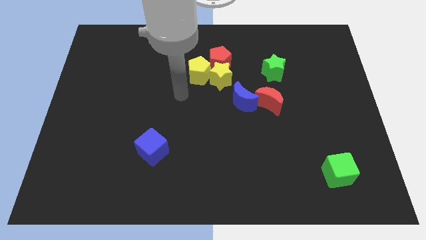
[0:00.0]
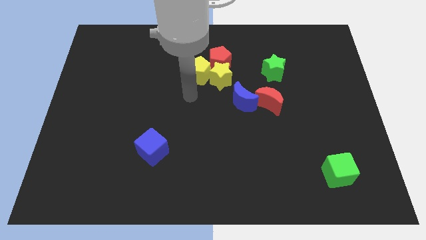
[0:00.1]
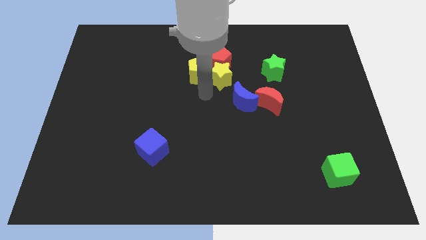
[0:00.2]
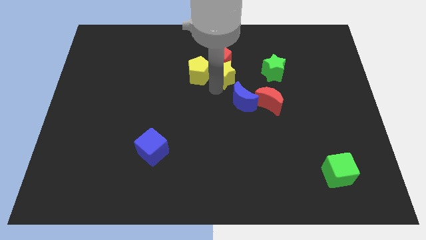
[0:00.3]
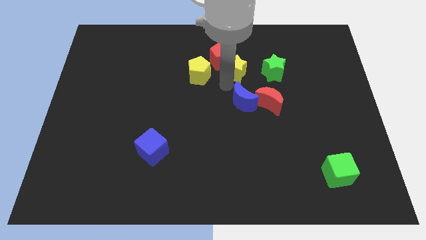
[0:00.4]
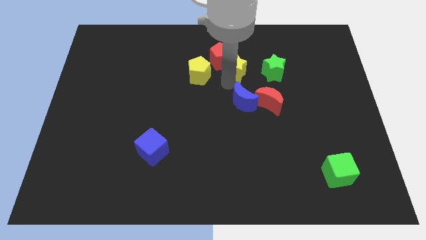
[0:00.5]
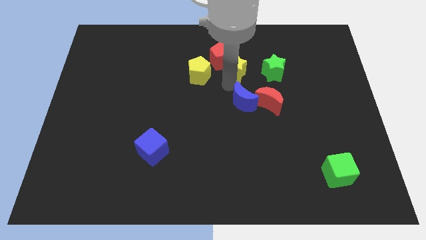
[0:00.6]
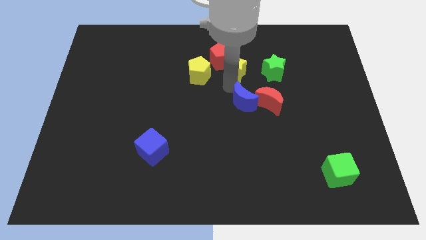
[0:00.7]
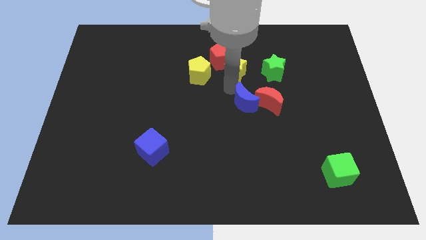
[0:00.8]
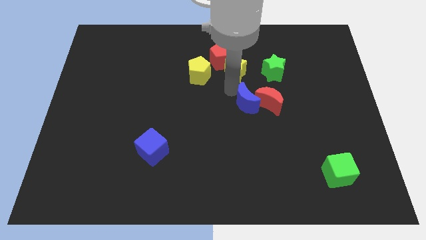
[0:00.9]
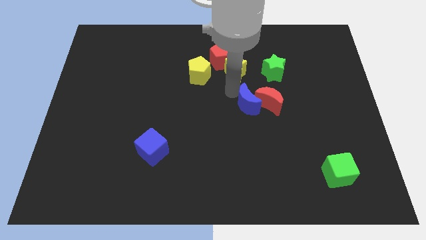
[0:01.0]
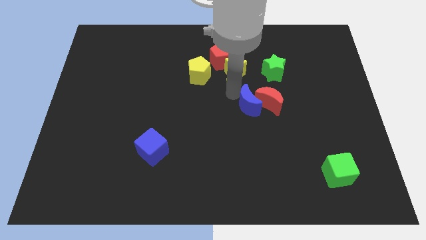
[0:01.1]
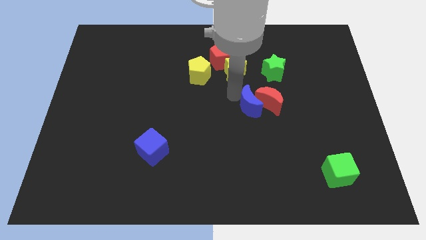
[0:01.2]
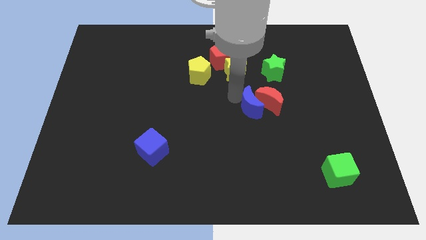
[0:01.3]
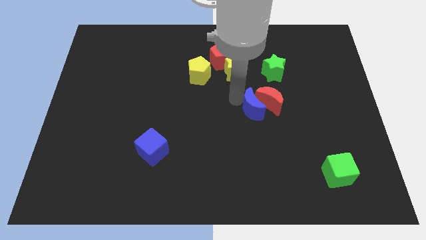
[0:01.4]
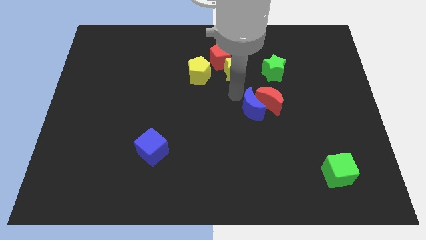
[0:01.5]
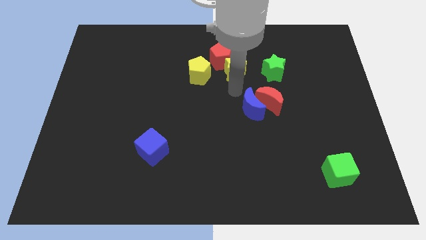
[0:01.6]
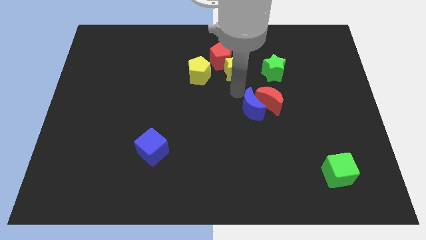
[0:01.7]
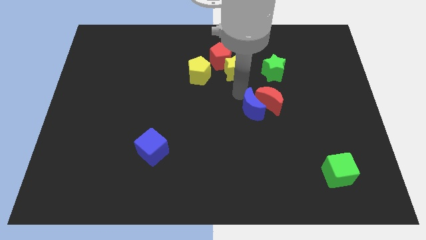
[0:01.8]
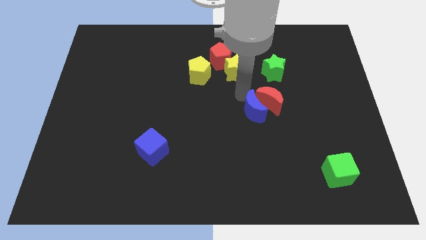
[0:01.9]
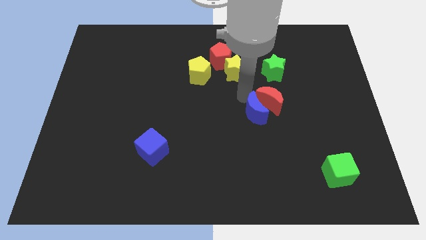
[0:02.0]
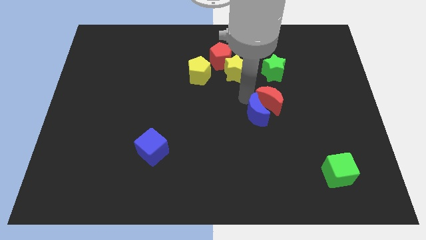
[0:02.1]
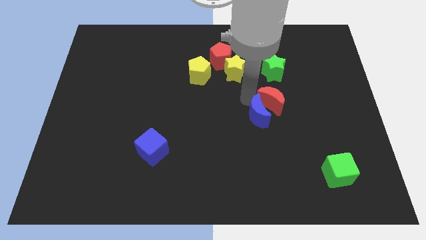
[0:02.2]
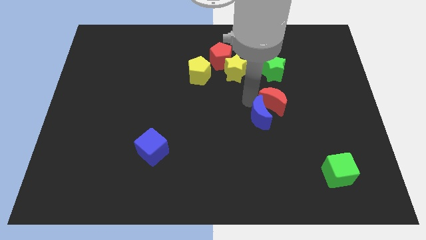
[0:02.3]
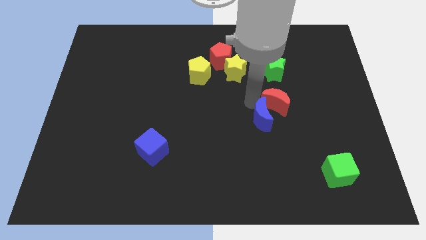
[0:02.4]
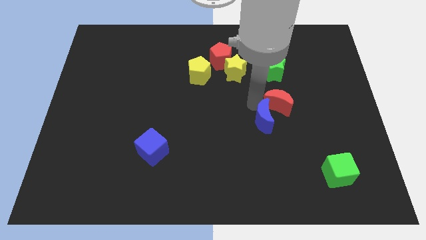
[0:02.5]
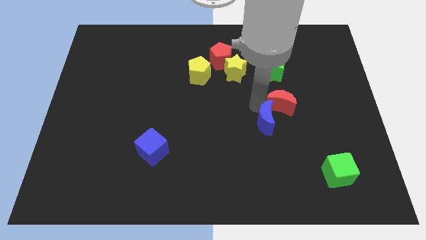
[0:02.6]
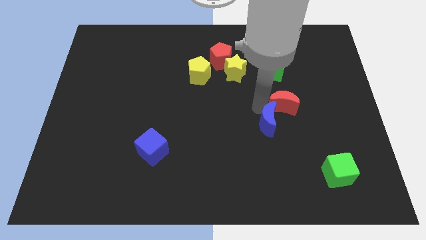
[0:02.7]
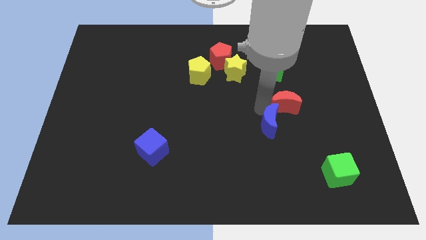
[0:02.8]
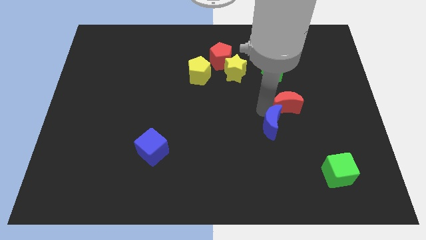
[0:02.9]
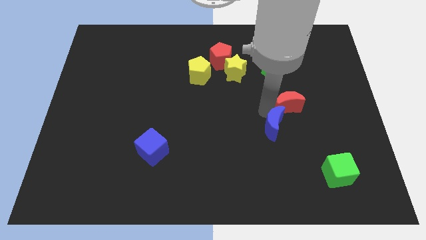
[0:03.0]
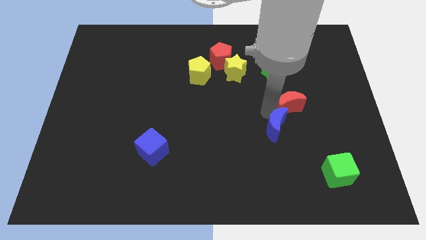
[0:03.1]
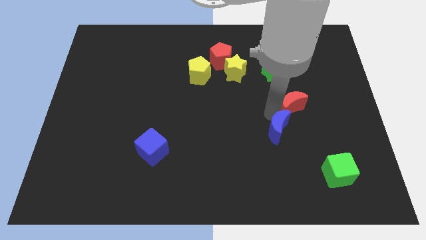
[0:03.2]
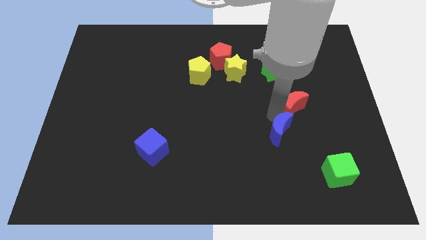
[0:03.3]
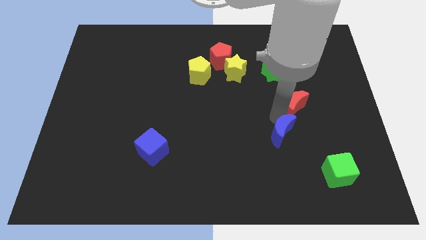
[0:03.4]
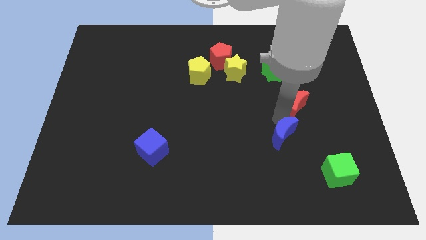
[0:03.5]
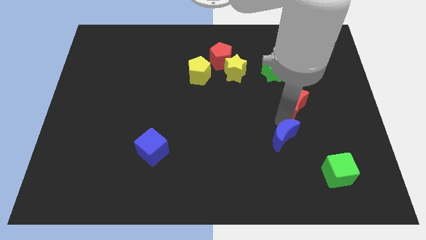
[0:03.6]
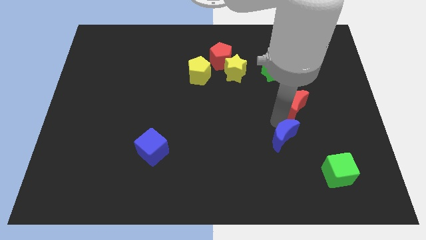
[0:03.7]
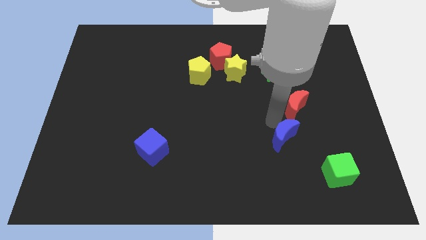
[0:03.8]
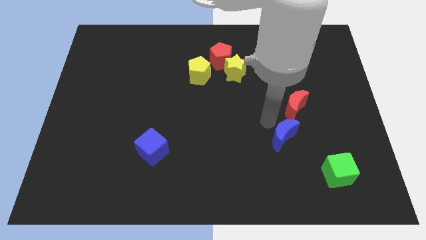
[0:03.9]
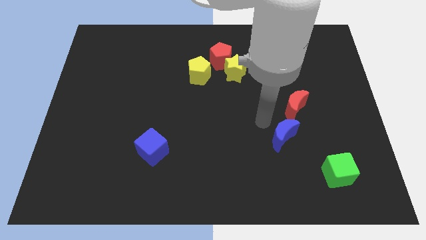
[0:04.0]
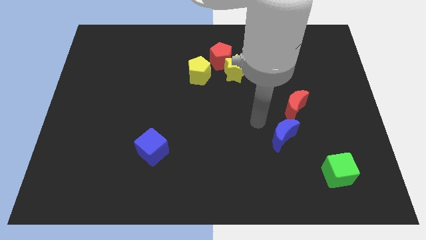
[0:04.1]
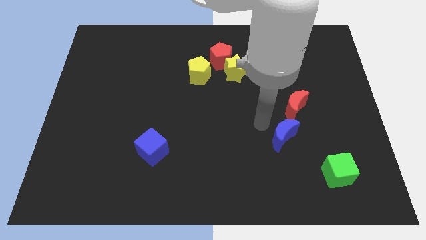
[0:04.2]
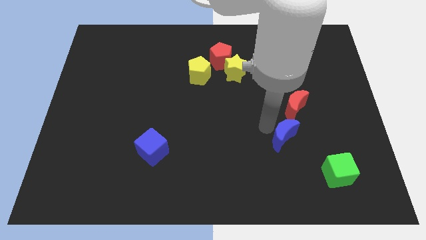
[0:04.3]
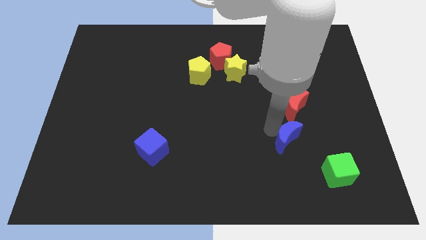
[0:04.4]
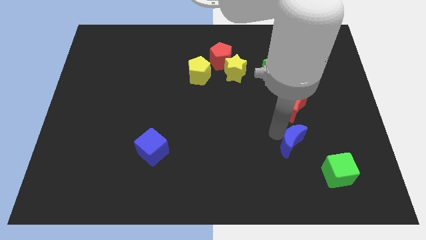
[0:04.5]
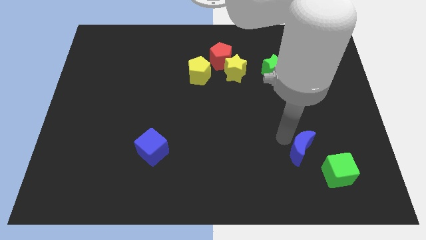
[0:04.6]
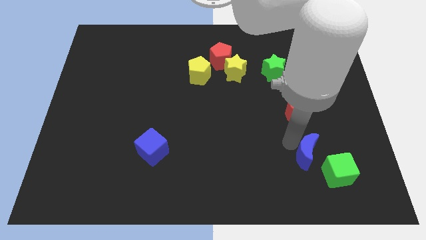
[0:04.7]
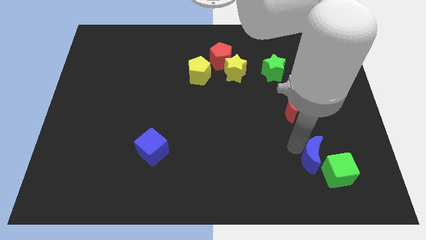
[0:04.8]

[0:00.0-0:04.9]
push the blue moon close to the green cube

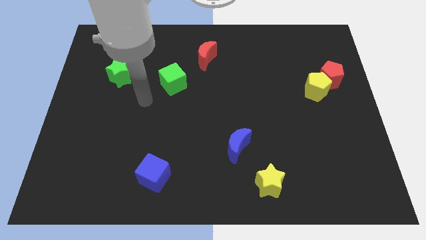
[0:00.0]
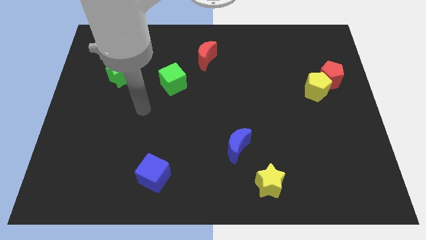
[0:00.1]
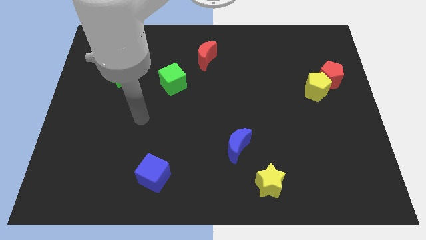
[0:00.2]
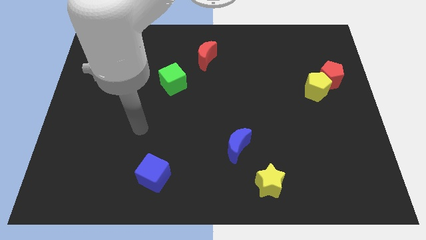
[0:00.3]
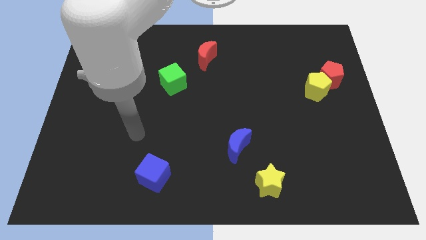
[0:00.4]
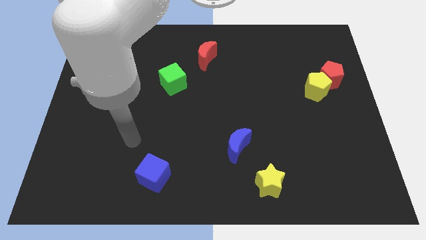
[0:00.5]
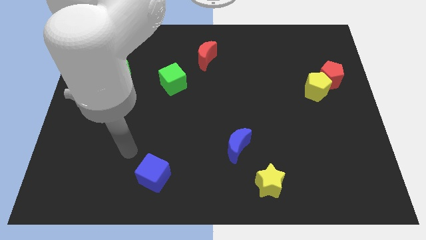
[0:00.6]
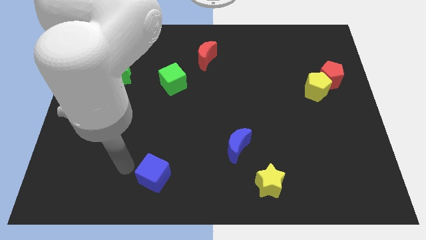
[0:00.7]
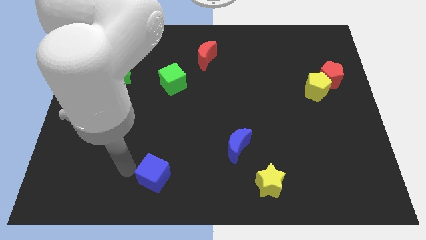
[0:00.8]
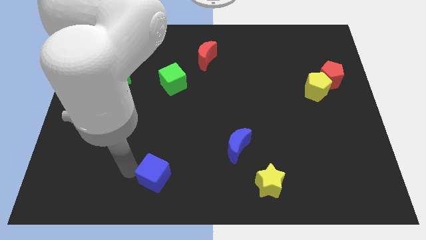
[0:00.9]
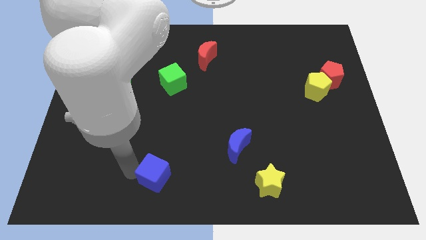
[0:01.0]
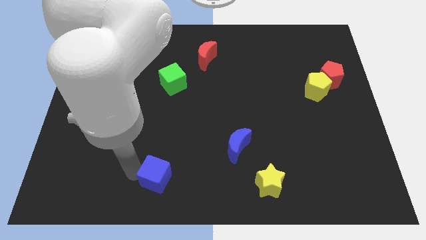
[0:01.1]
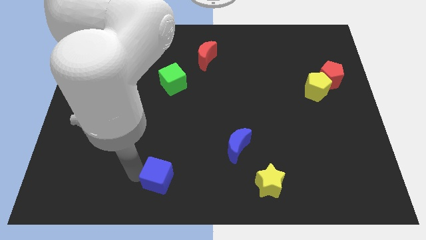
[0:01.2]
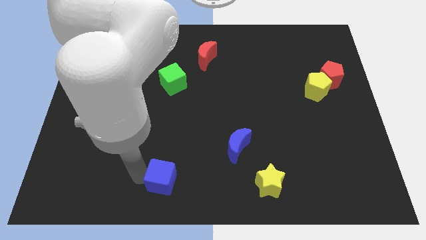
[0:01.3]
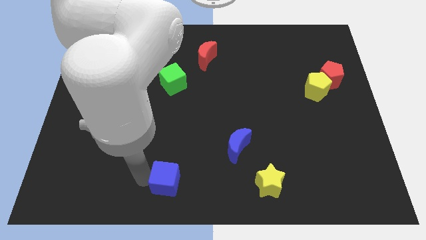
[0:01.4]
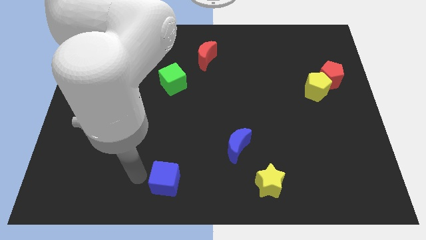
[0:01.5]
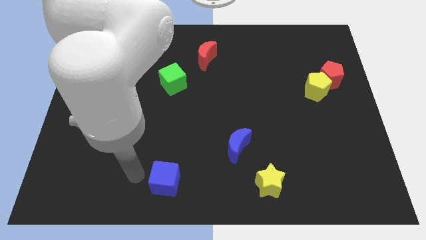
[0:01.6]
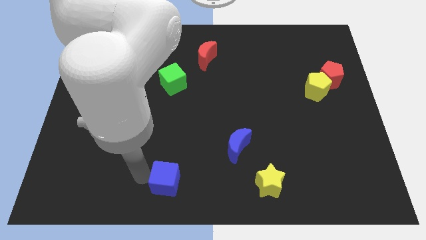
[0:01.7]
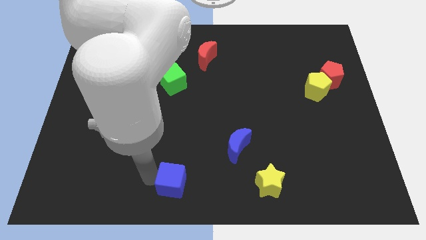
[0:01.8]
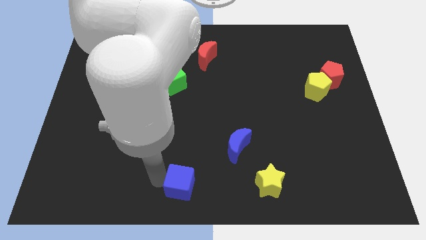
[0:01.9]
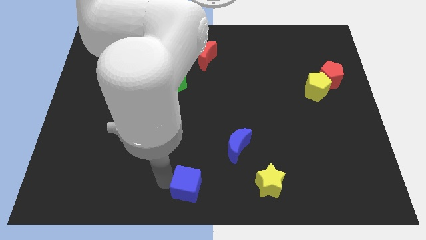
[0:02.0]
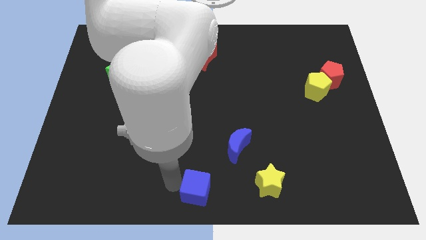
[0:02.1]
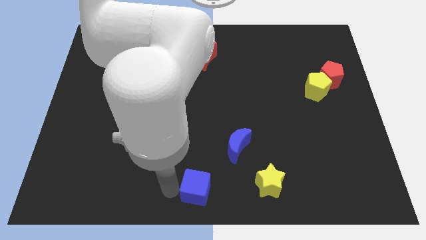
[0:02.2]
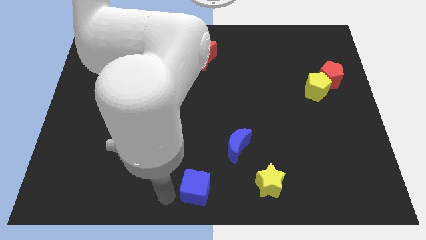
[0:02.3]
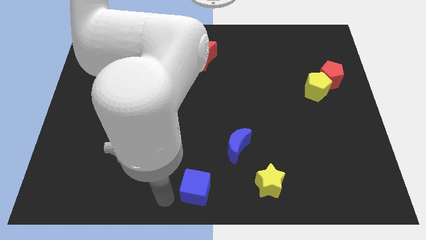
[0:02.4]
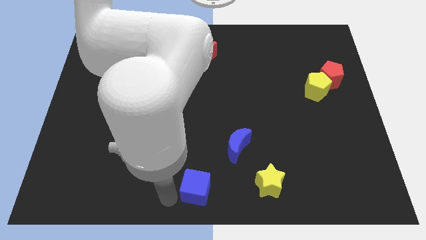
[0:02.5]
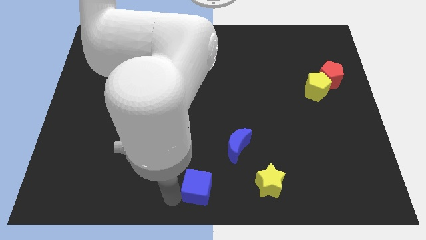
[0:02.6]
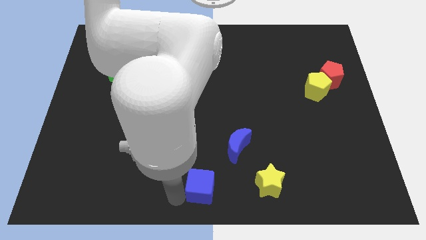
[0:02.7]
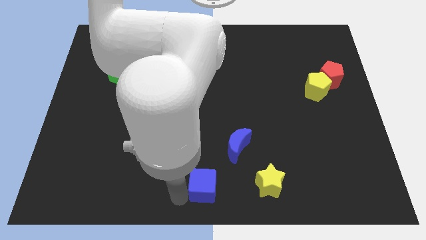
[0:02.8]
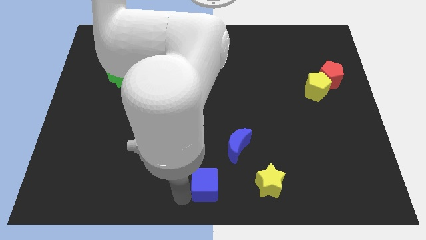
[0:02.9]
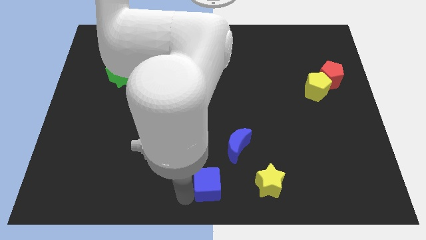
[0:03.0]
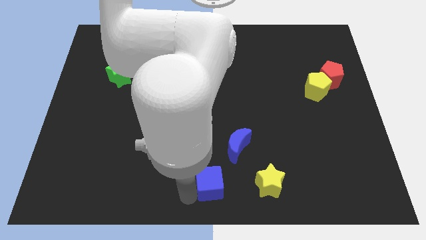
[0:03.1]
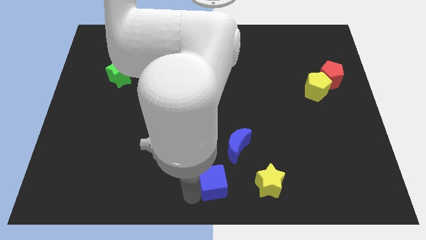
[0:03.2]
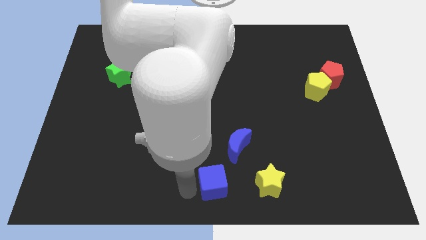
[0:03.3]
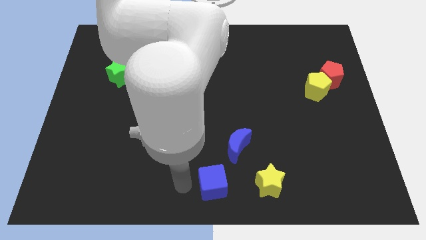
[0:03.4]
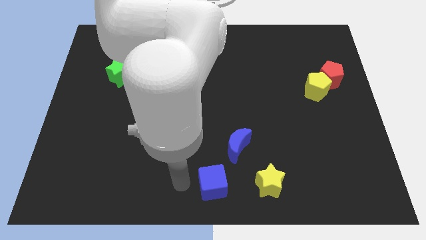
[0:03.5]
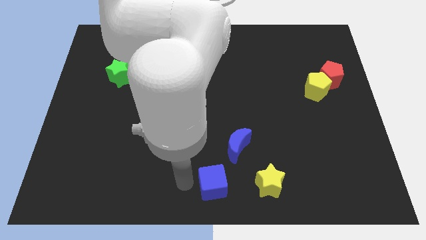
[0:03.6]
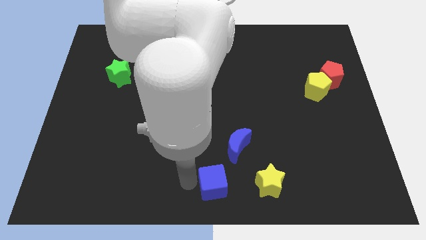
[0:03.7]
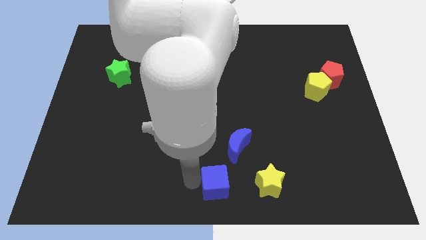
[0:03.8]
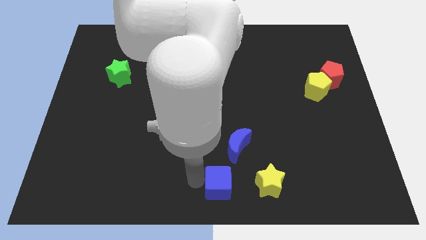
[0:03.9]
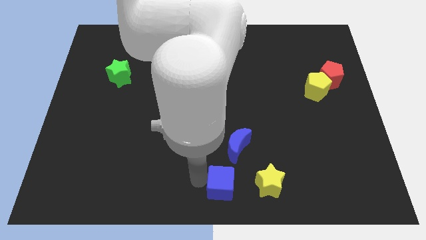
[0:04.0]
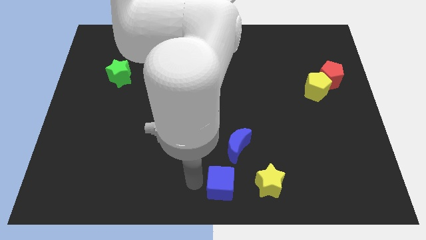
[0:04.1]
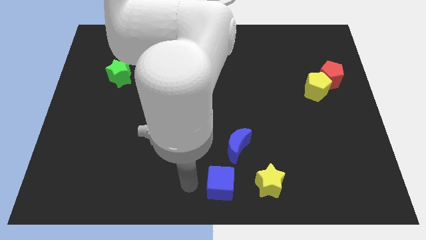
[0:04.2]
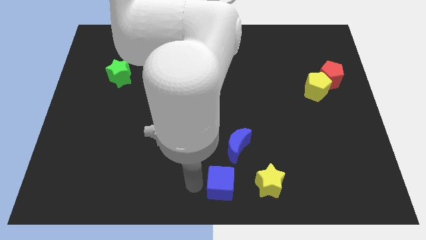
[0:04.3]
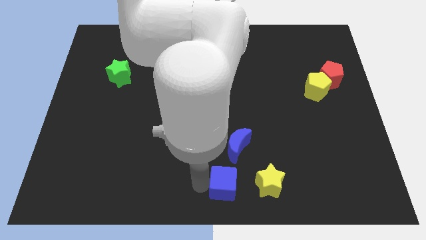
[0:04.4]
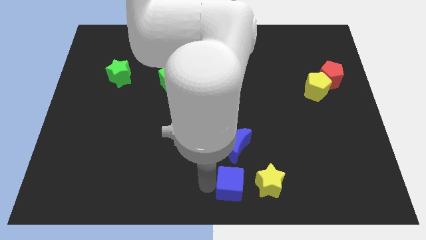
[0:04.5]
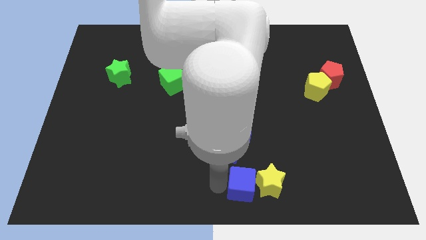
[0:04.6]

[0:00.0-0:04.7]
move the blue cube next to the yellow star
